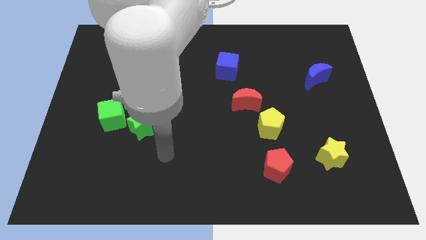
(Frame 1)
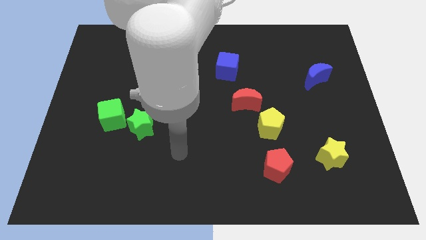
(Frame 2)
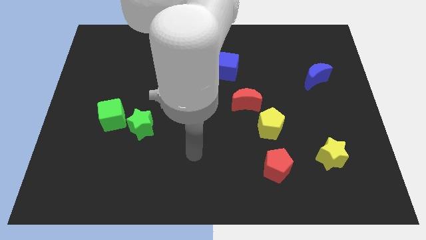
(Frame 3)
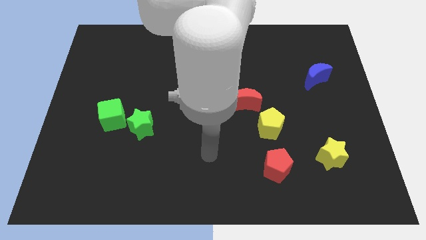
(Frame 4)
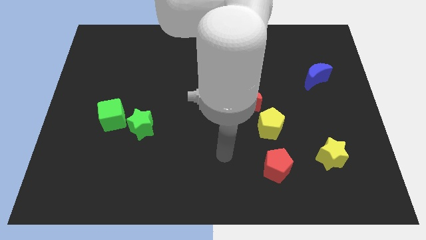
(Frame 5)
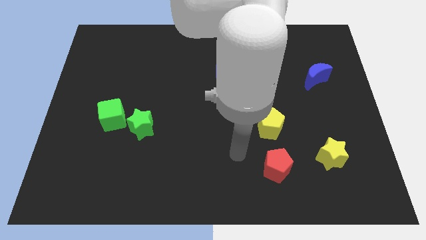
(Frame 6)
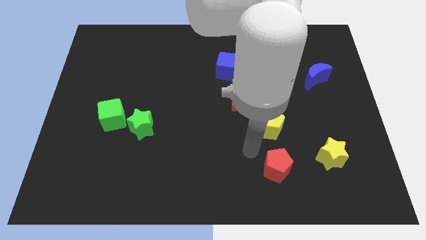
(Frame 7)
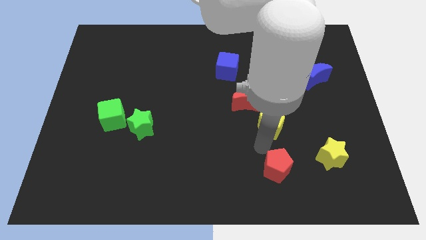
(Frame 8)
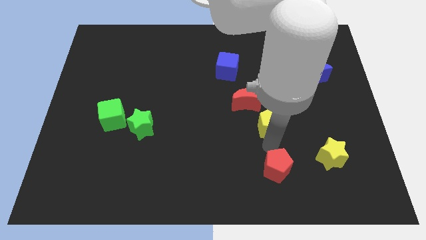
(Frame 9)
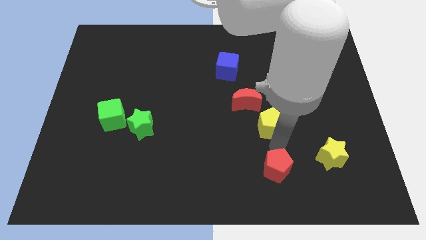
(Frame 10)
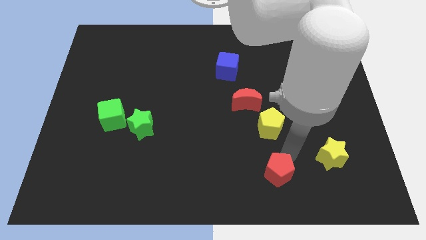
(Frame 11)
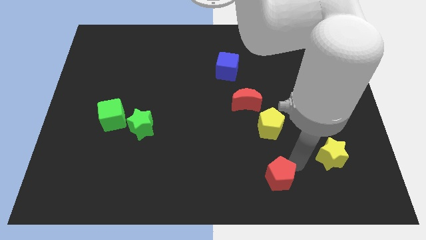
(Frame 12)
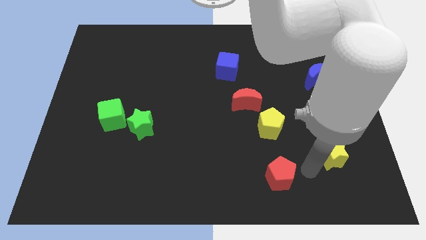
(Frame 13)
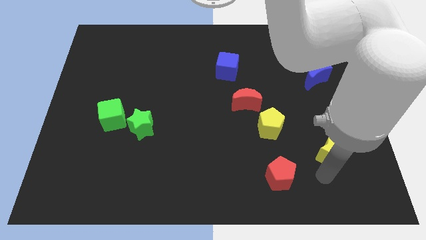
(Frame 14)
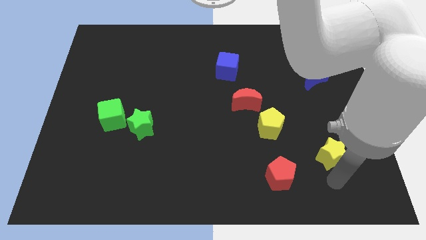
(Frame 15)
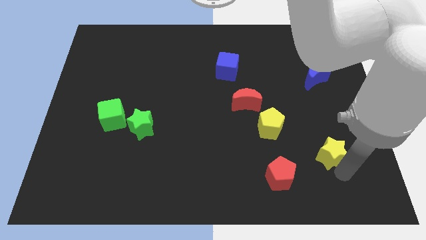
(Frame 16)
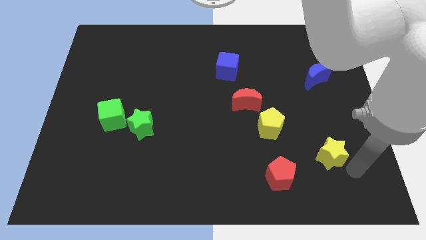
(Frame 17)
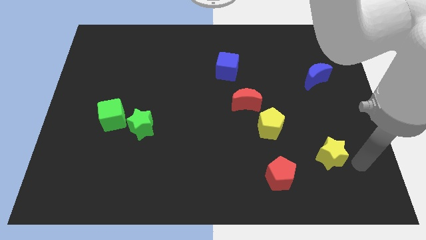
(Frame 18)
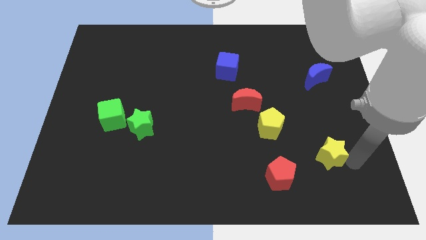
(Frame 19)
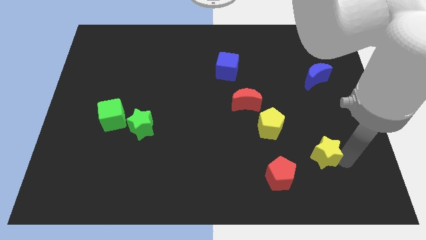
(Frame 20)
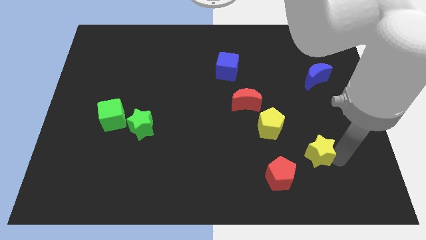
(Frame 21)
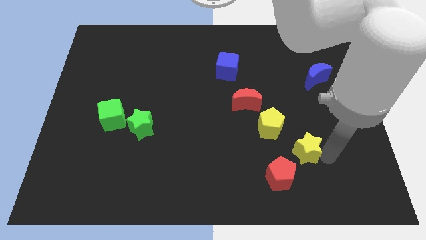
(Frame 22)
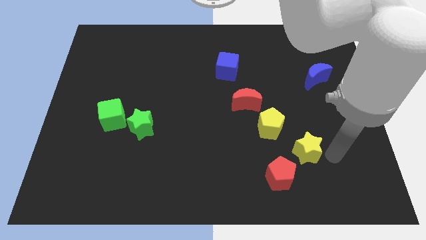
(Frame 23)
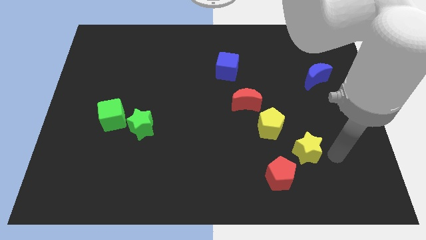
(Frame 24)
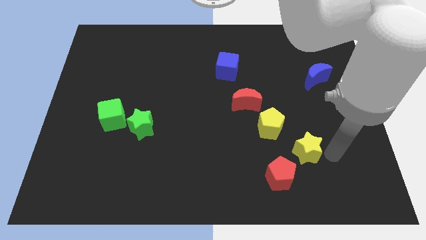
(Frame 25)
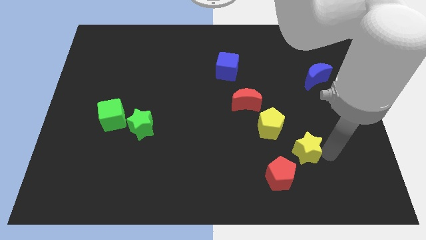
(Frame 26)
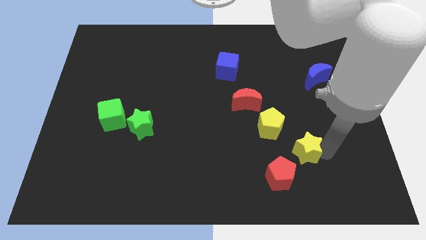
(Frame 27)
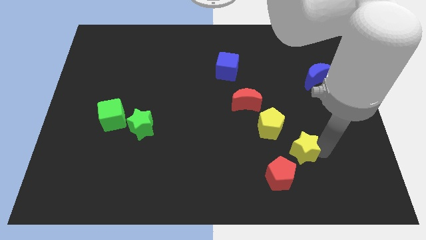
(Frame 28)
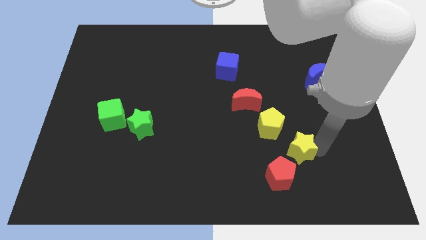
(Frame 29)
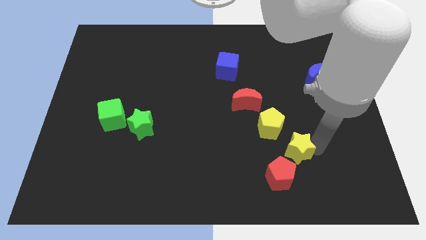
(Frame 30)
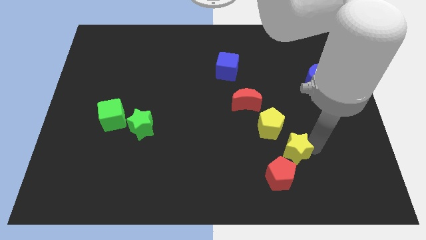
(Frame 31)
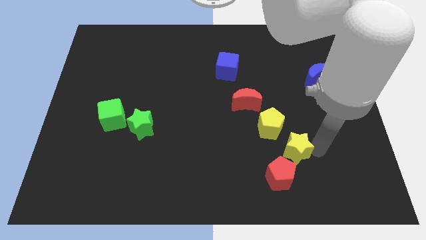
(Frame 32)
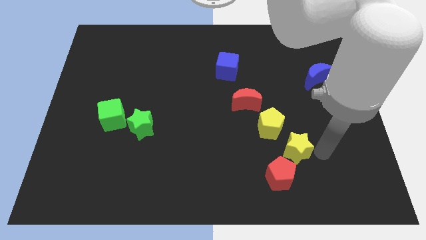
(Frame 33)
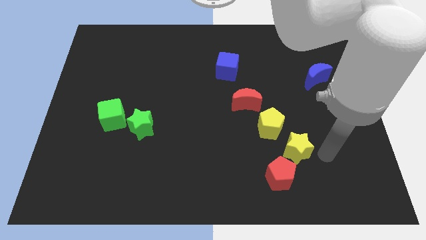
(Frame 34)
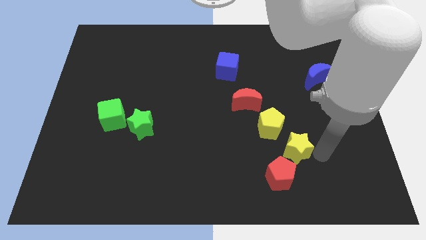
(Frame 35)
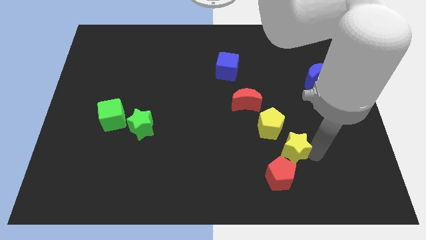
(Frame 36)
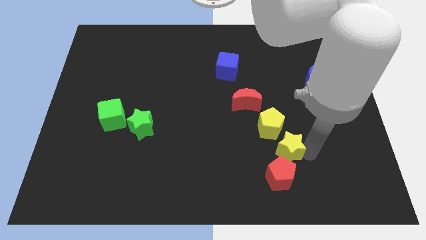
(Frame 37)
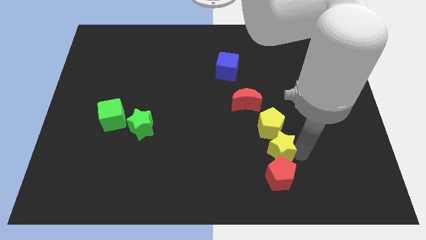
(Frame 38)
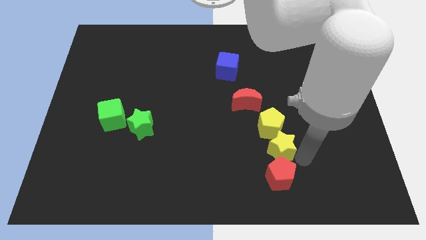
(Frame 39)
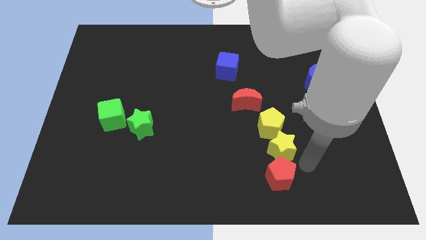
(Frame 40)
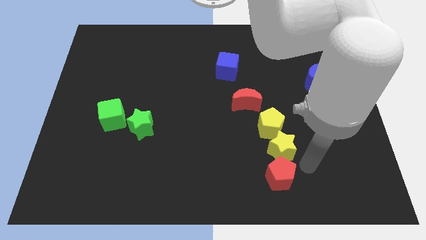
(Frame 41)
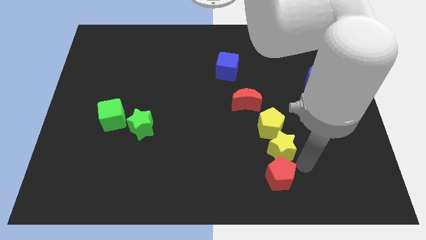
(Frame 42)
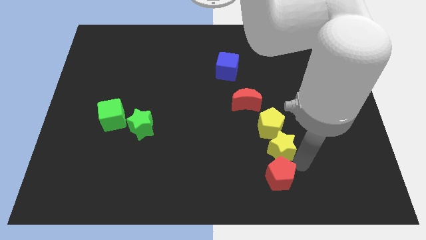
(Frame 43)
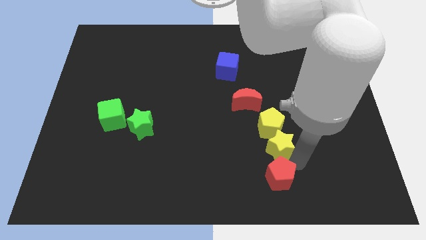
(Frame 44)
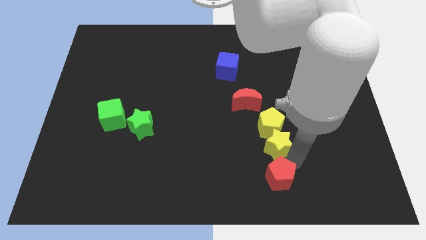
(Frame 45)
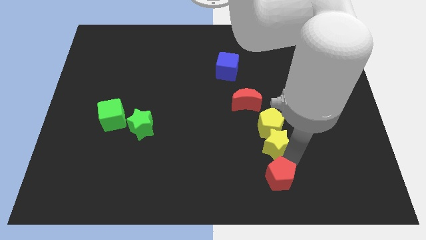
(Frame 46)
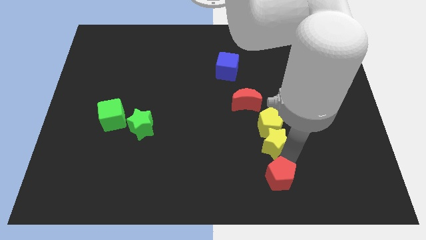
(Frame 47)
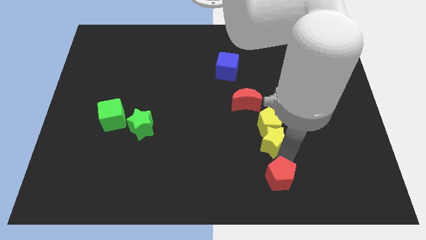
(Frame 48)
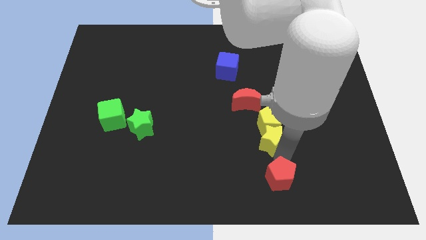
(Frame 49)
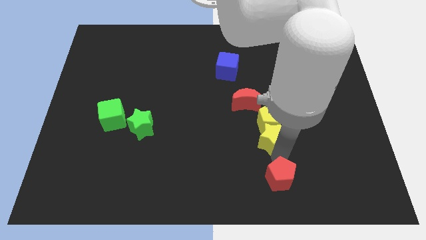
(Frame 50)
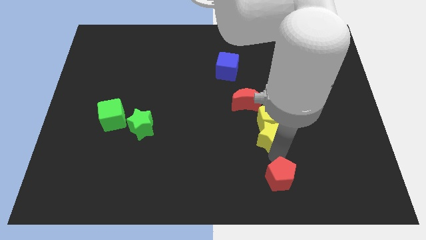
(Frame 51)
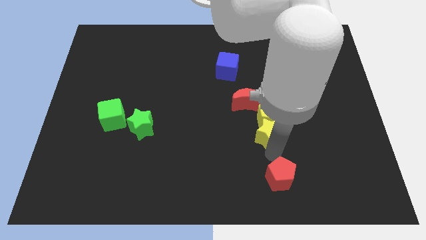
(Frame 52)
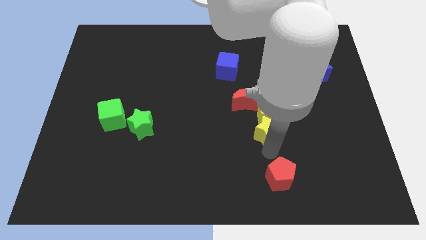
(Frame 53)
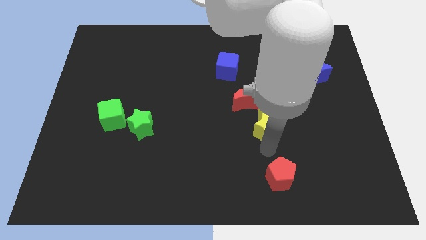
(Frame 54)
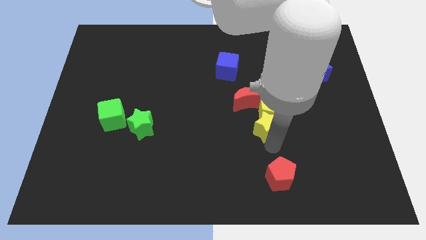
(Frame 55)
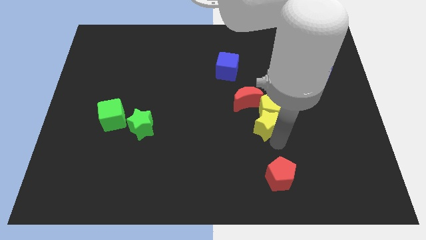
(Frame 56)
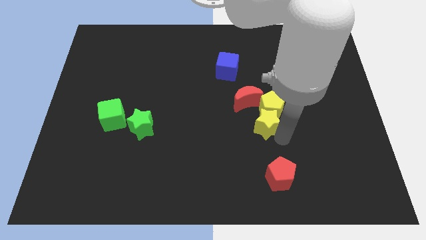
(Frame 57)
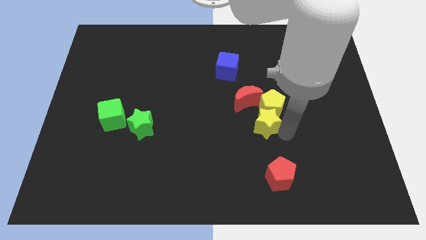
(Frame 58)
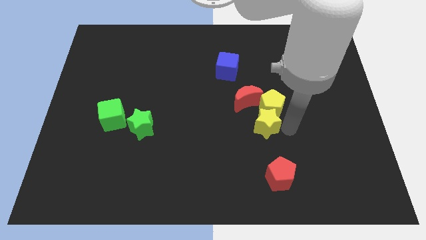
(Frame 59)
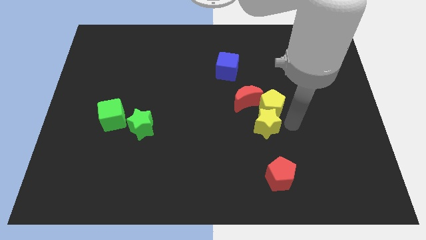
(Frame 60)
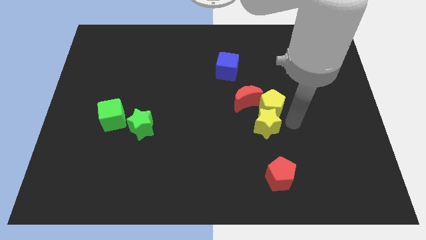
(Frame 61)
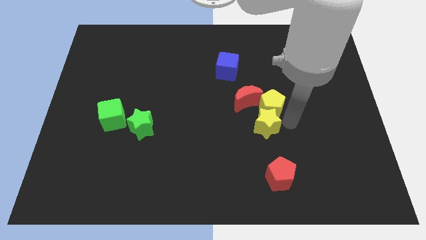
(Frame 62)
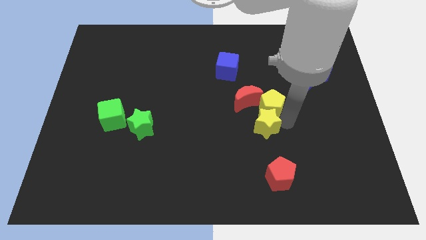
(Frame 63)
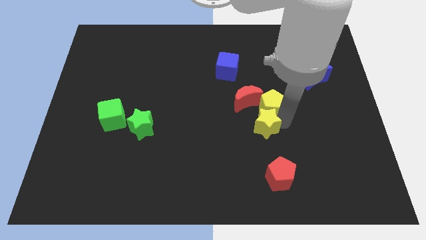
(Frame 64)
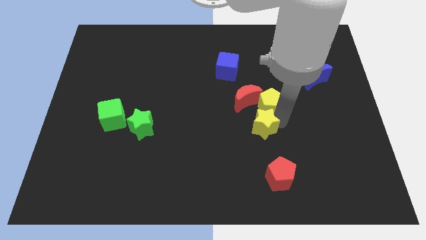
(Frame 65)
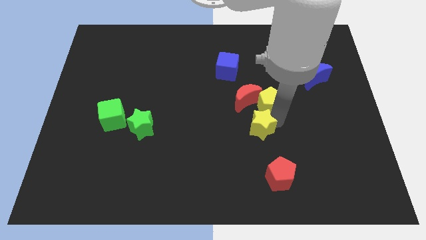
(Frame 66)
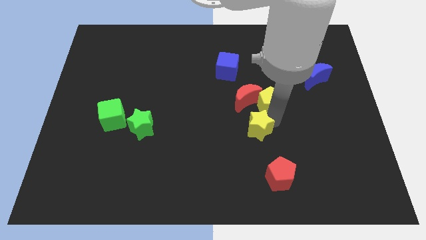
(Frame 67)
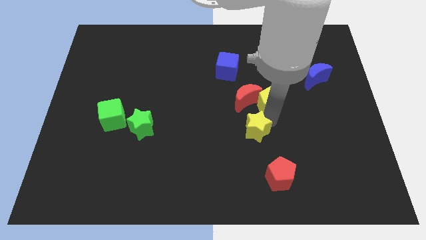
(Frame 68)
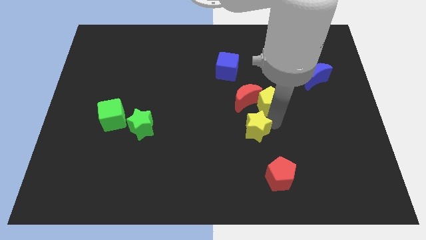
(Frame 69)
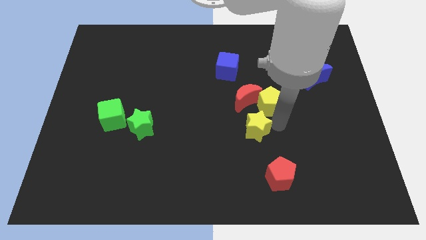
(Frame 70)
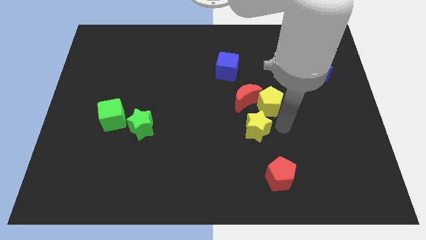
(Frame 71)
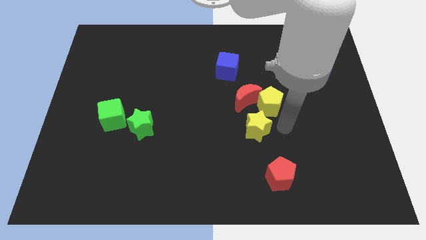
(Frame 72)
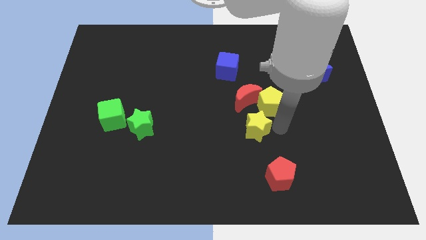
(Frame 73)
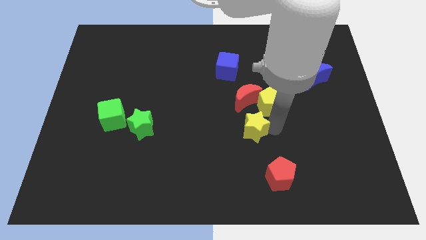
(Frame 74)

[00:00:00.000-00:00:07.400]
push the yellow star to the middle of the board
